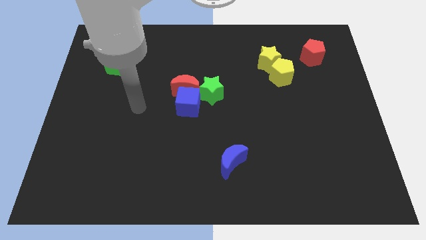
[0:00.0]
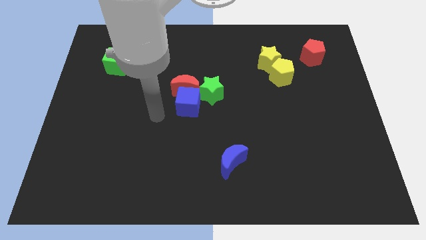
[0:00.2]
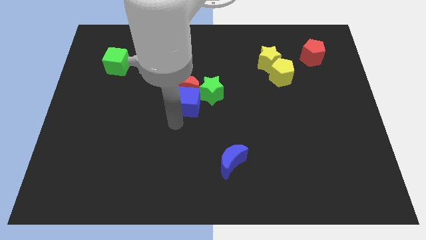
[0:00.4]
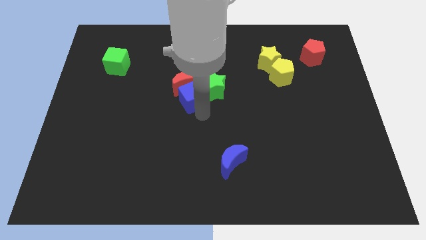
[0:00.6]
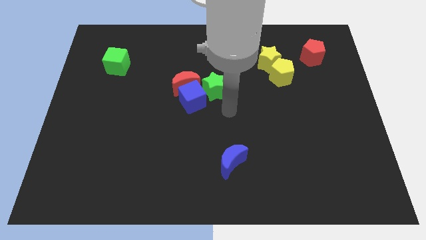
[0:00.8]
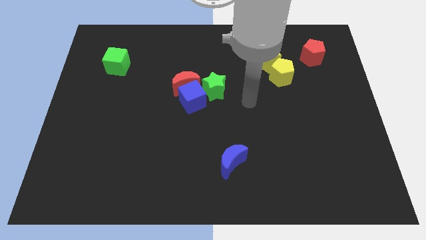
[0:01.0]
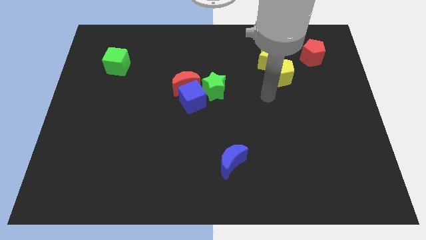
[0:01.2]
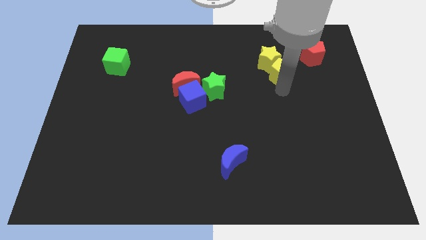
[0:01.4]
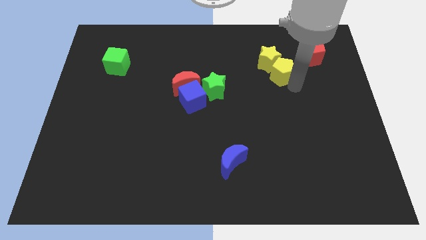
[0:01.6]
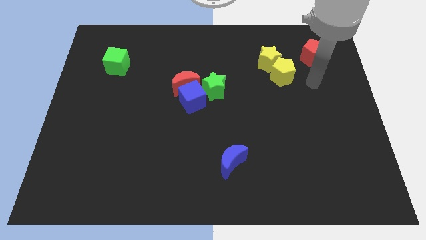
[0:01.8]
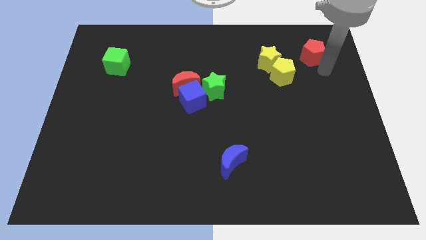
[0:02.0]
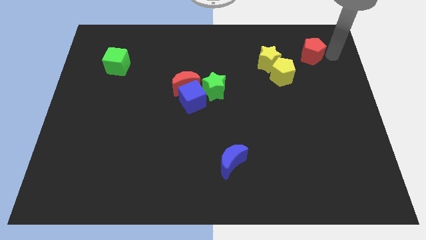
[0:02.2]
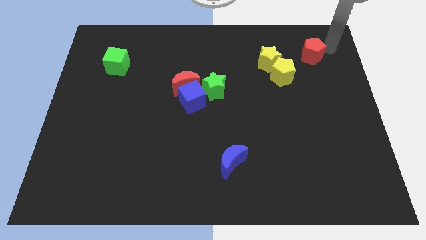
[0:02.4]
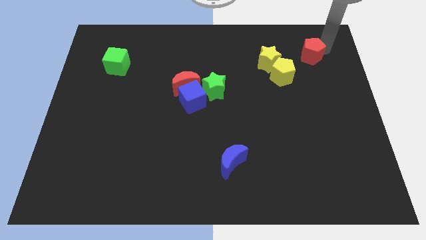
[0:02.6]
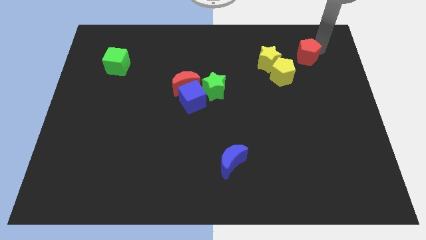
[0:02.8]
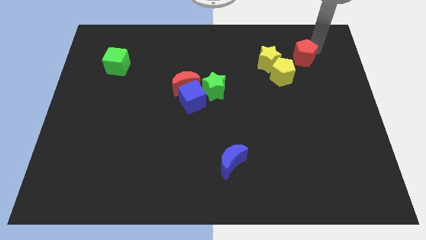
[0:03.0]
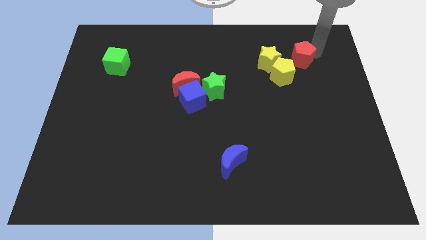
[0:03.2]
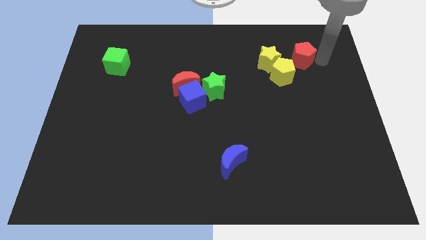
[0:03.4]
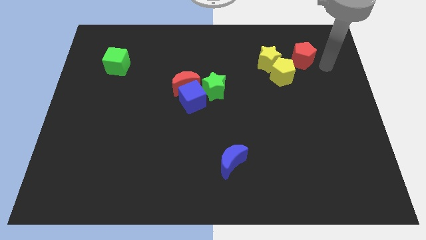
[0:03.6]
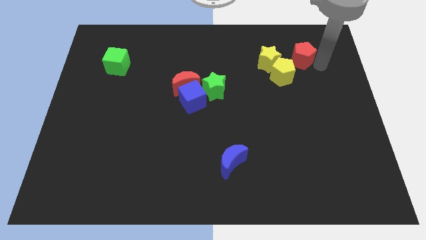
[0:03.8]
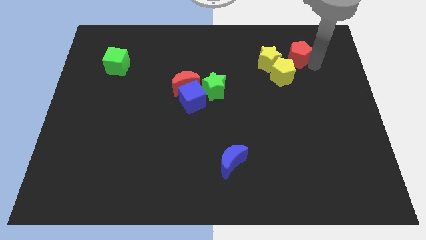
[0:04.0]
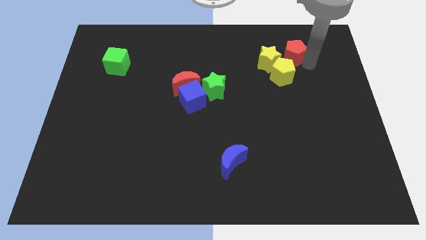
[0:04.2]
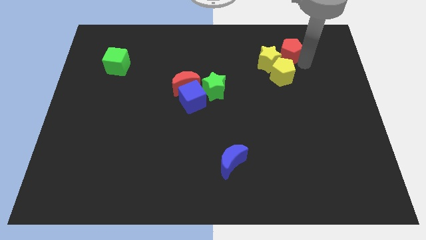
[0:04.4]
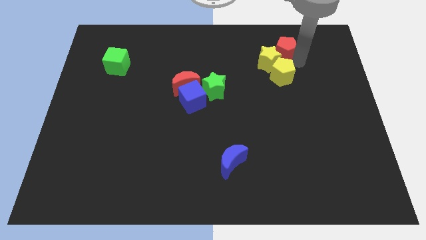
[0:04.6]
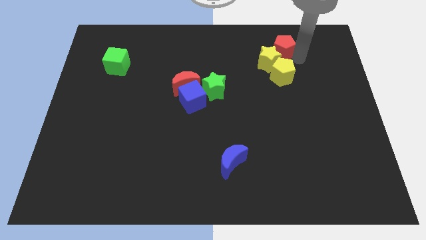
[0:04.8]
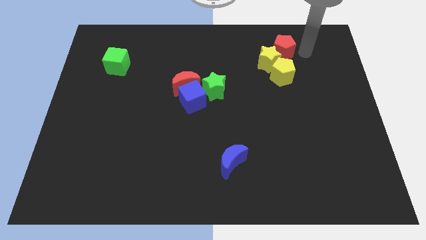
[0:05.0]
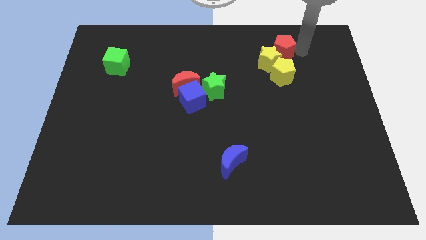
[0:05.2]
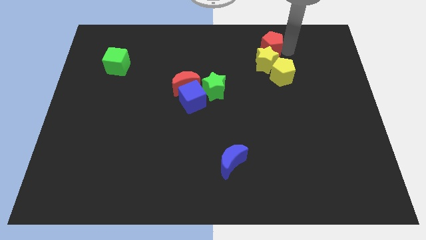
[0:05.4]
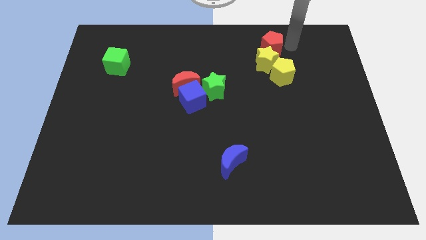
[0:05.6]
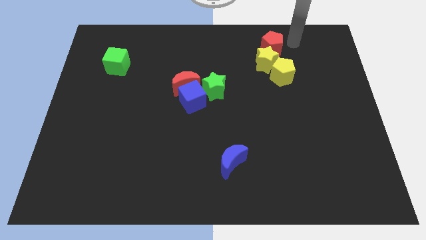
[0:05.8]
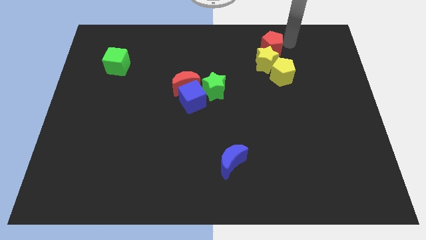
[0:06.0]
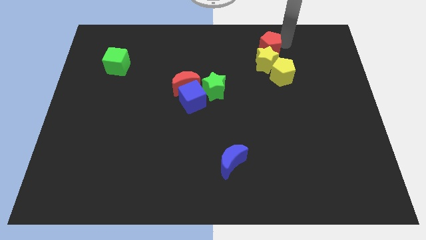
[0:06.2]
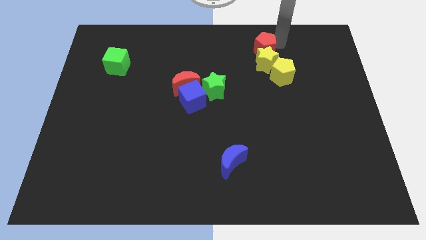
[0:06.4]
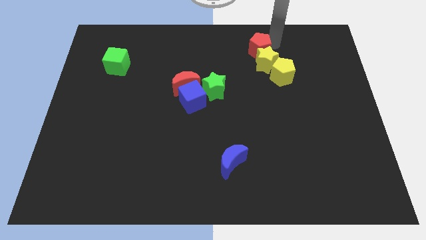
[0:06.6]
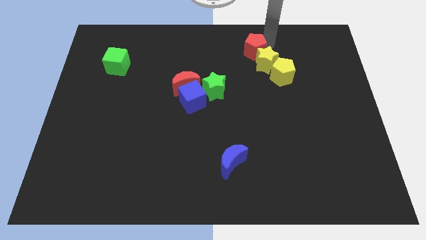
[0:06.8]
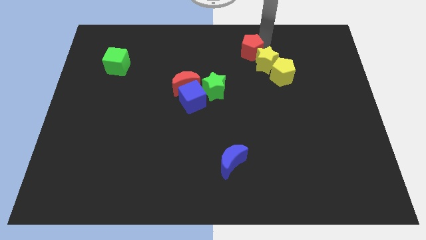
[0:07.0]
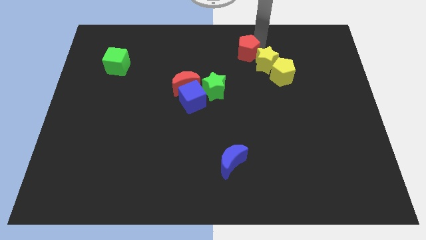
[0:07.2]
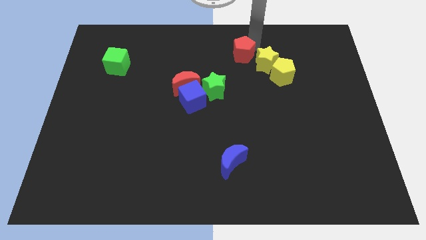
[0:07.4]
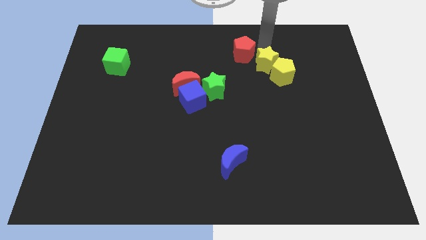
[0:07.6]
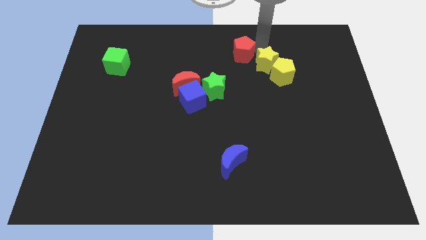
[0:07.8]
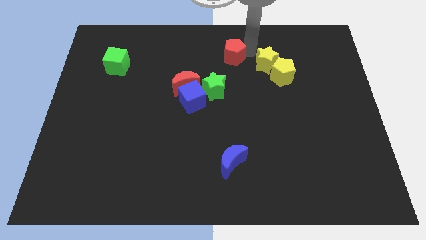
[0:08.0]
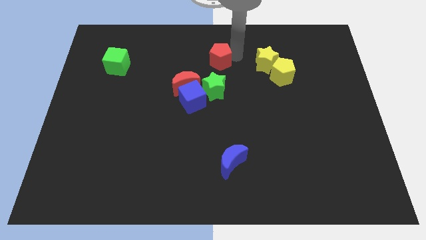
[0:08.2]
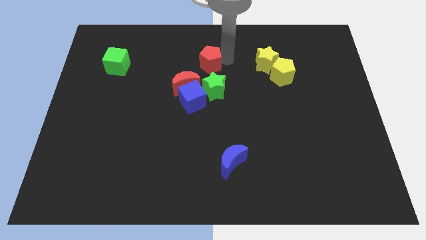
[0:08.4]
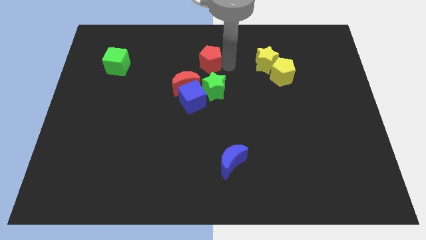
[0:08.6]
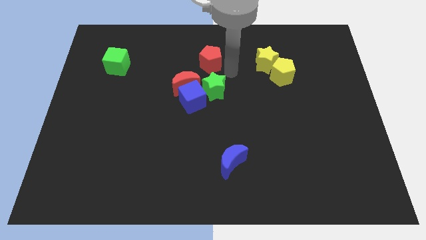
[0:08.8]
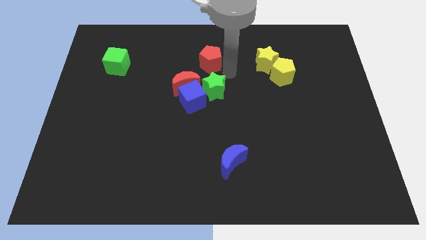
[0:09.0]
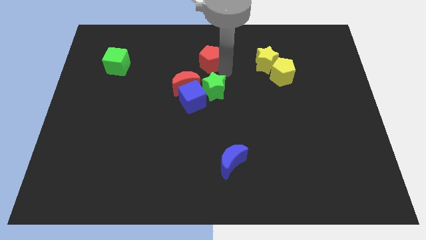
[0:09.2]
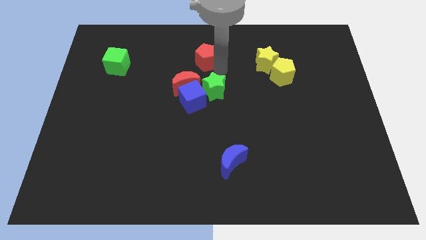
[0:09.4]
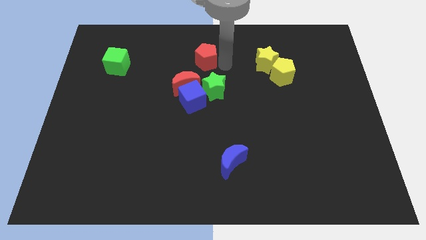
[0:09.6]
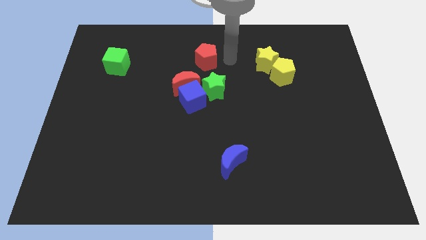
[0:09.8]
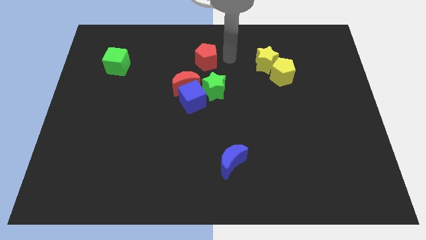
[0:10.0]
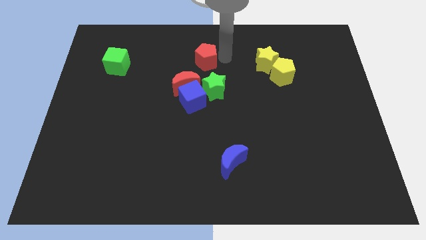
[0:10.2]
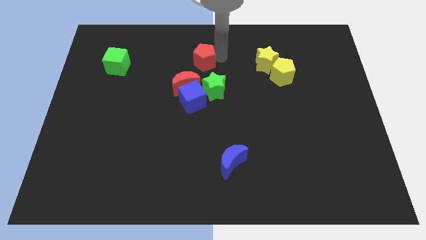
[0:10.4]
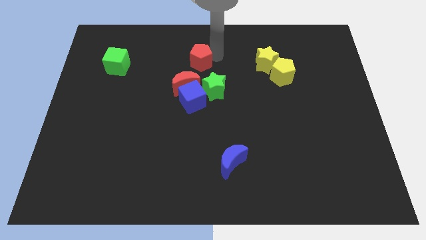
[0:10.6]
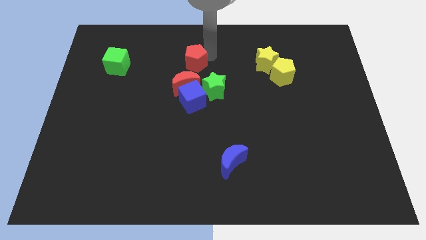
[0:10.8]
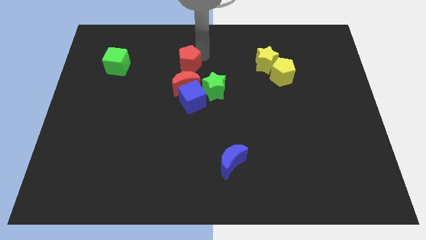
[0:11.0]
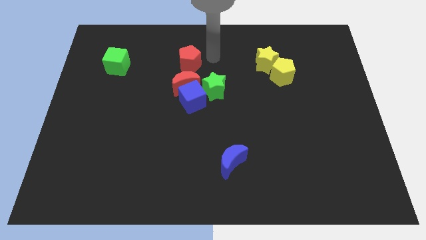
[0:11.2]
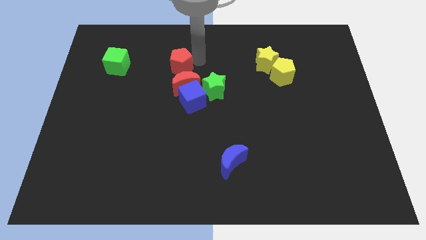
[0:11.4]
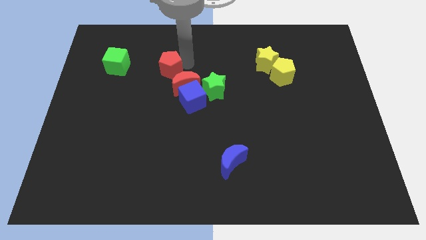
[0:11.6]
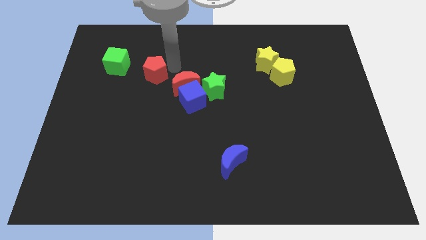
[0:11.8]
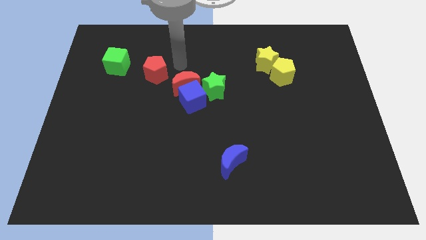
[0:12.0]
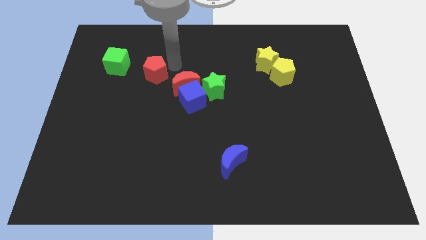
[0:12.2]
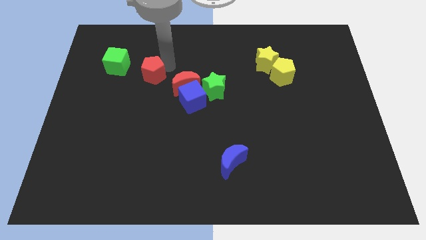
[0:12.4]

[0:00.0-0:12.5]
put the red pentagon to the bottom right side of the green cube

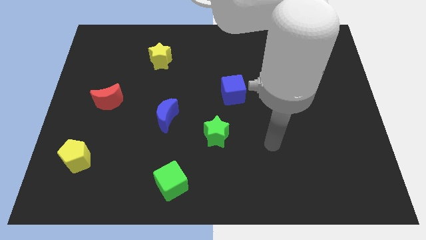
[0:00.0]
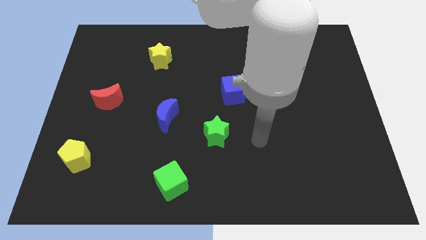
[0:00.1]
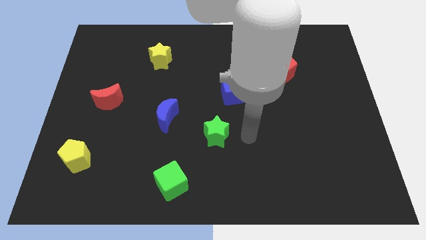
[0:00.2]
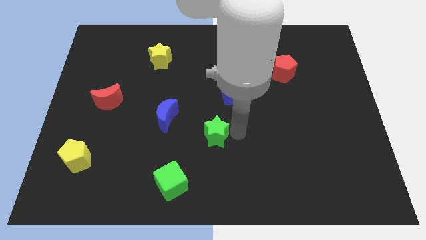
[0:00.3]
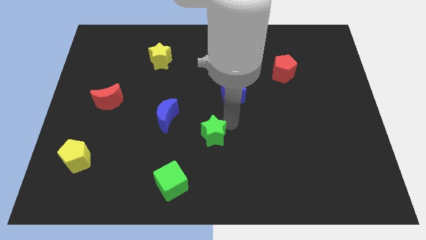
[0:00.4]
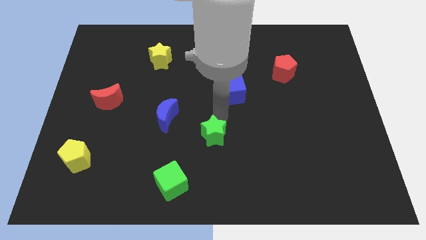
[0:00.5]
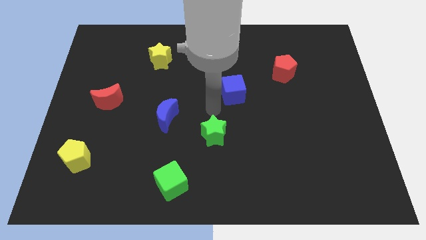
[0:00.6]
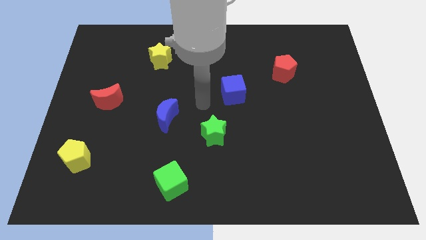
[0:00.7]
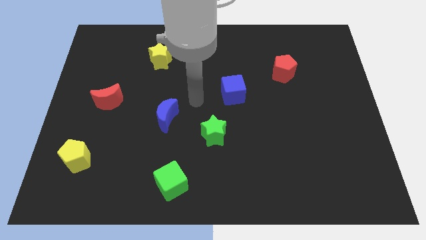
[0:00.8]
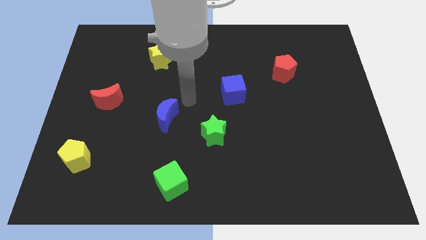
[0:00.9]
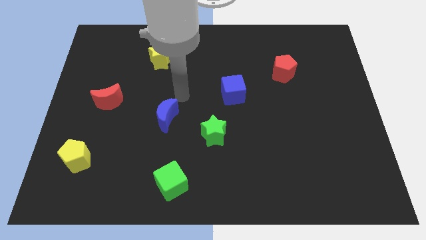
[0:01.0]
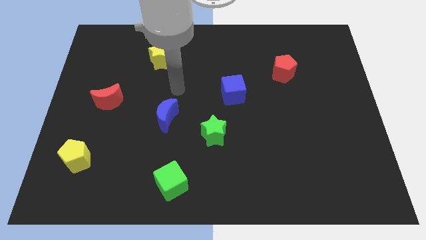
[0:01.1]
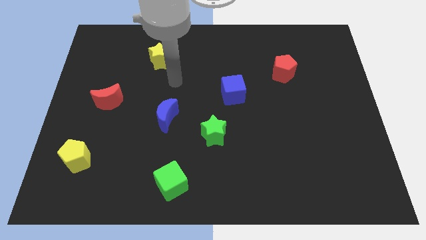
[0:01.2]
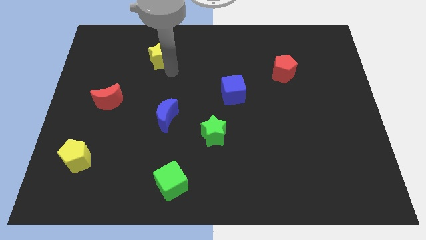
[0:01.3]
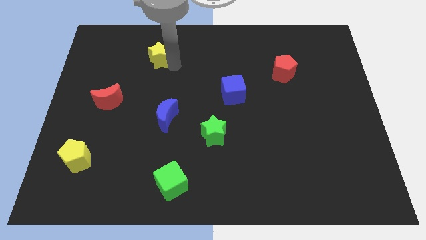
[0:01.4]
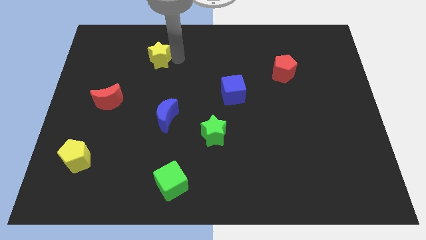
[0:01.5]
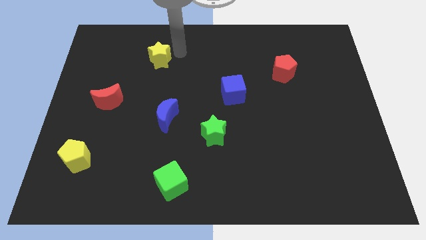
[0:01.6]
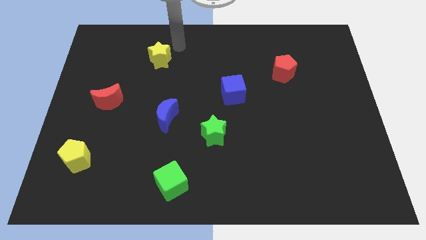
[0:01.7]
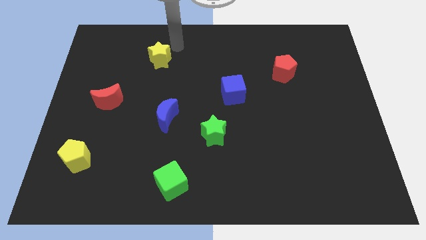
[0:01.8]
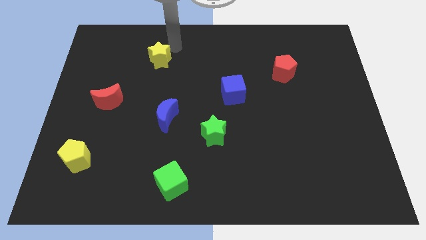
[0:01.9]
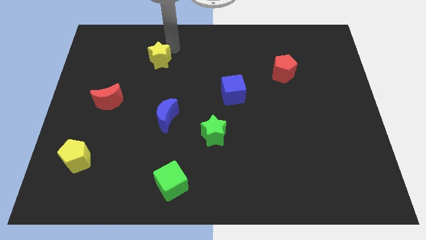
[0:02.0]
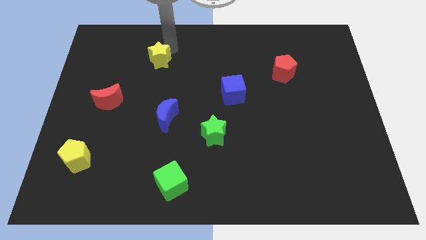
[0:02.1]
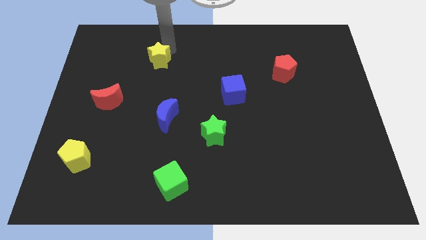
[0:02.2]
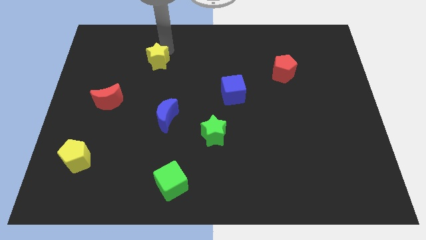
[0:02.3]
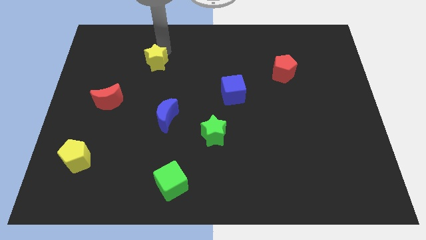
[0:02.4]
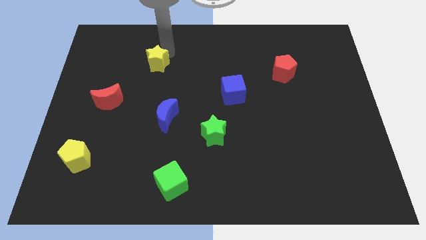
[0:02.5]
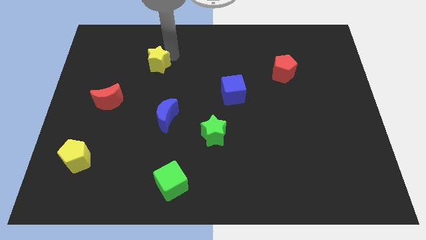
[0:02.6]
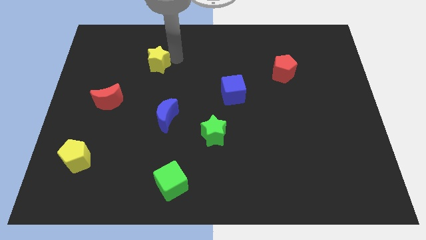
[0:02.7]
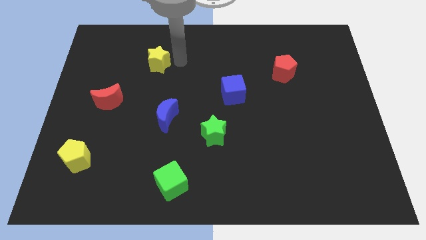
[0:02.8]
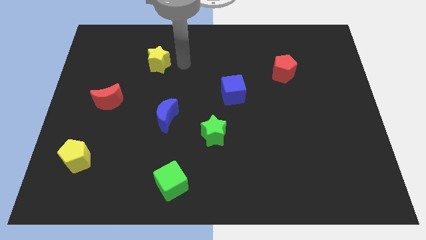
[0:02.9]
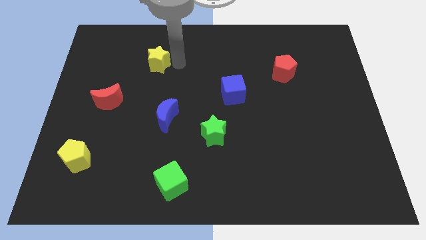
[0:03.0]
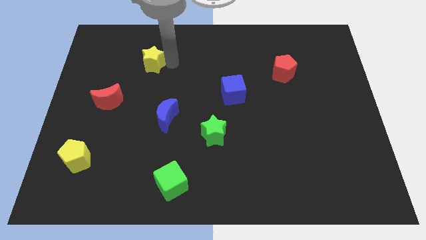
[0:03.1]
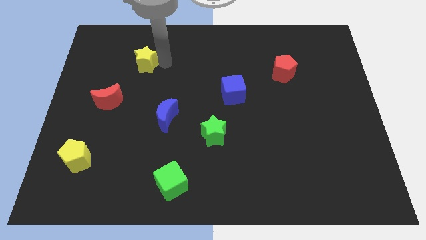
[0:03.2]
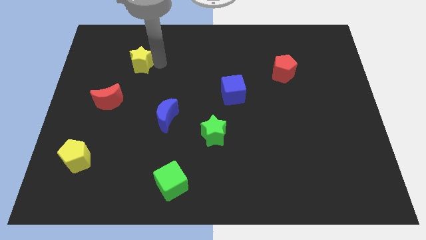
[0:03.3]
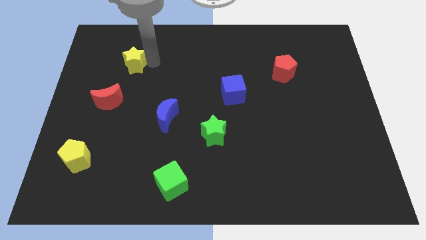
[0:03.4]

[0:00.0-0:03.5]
move the yellow star to the top side of the red moon
